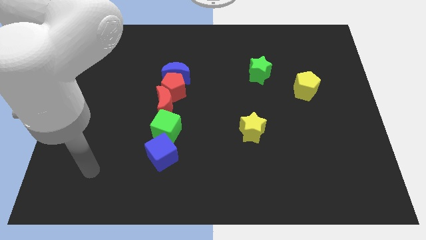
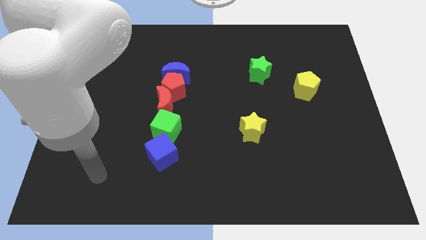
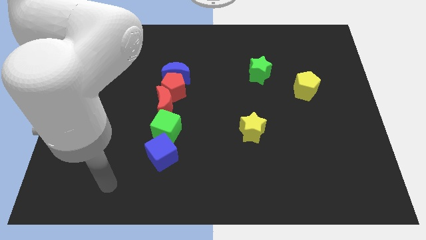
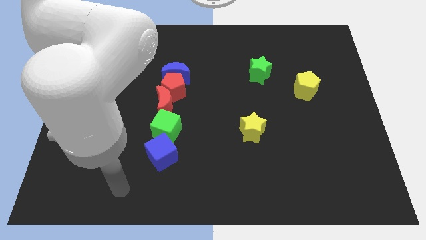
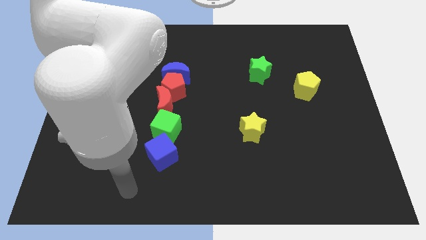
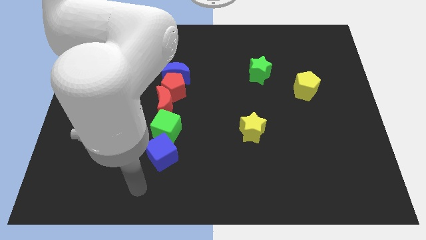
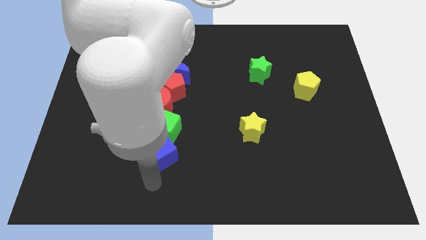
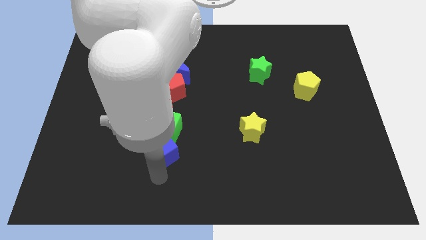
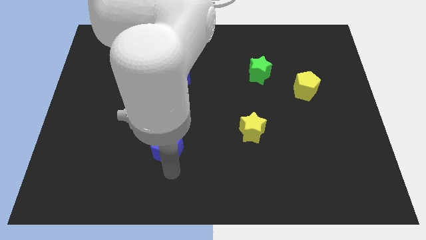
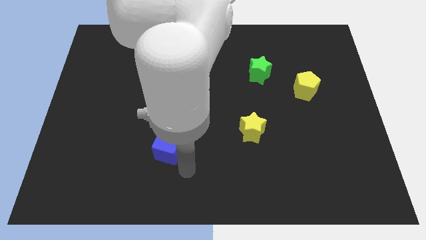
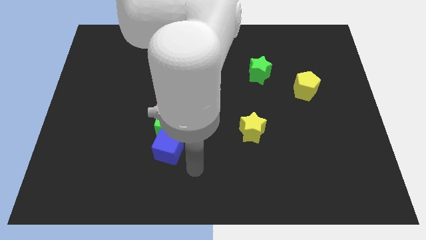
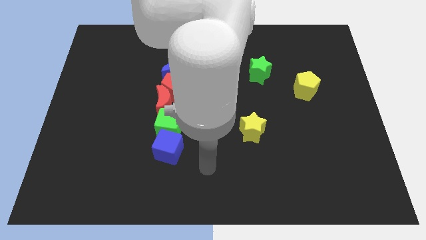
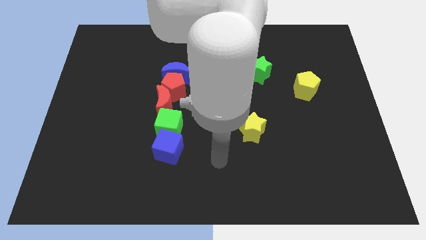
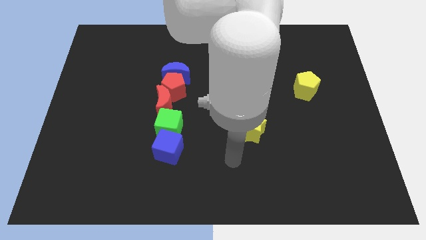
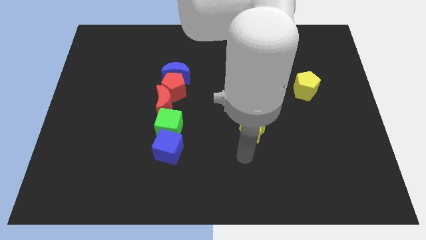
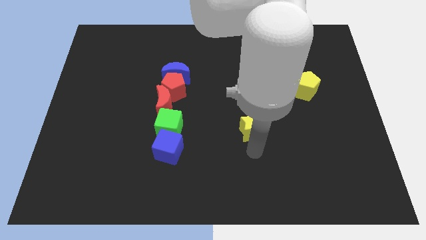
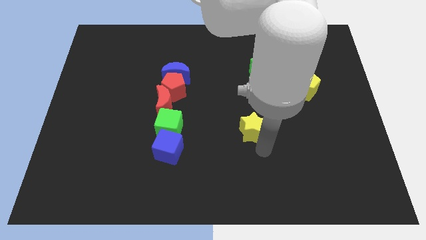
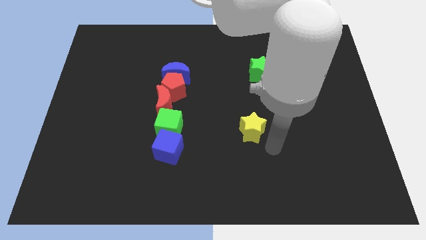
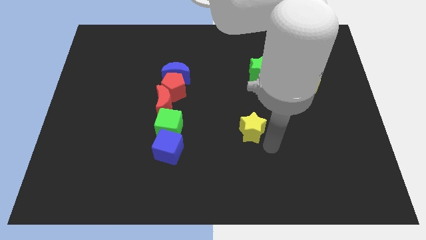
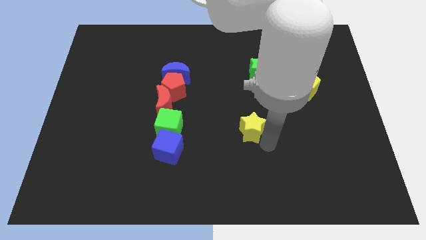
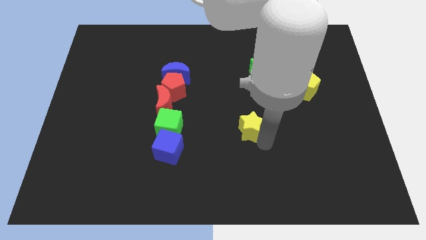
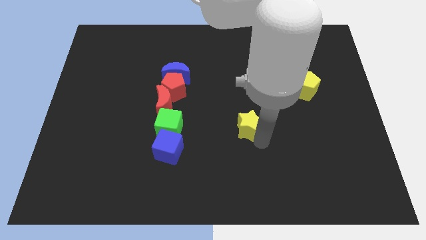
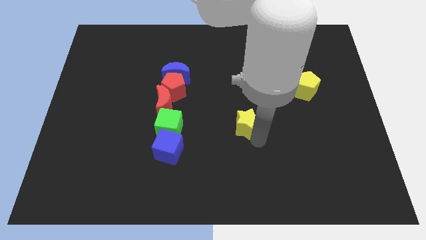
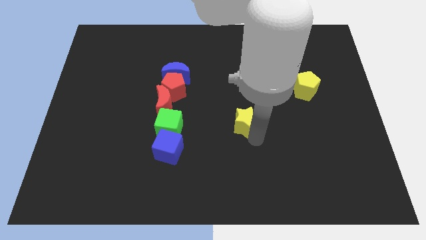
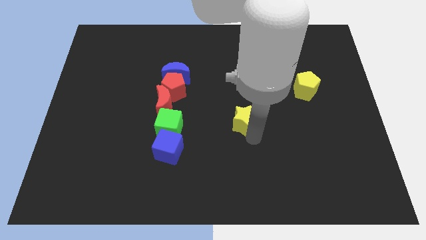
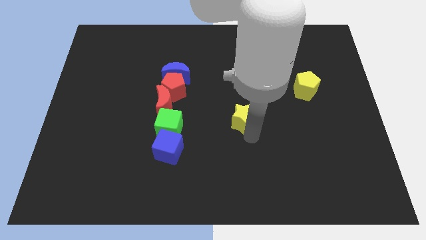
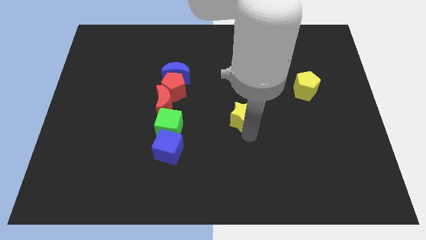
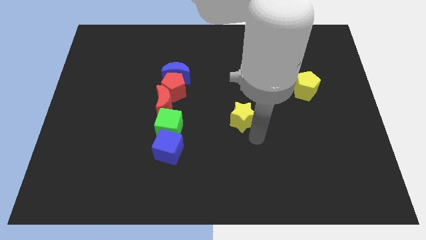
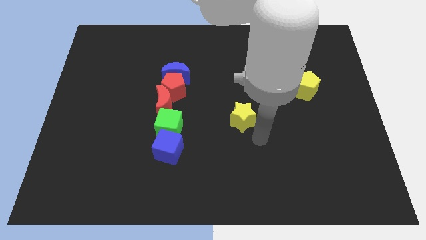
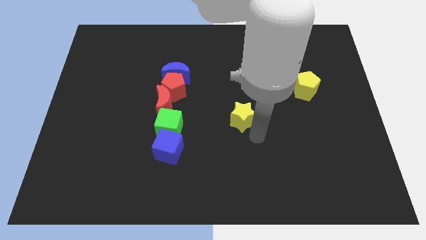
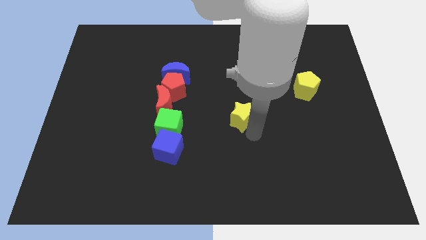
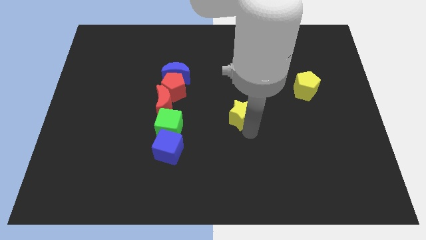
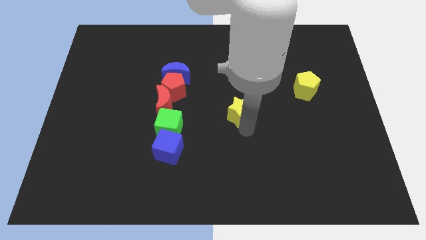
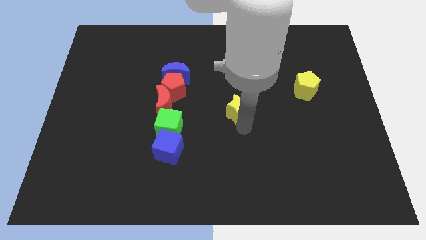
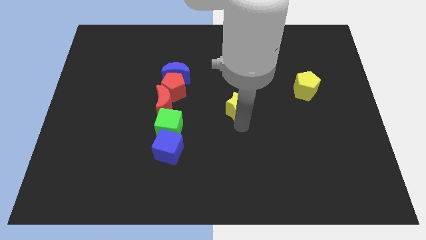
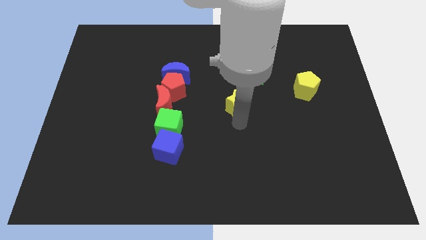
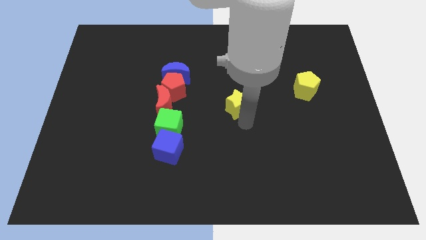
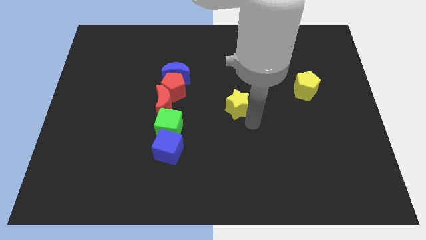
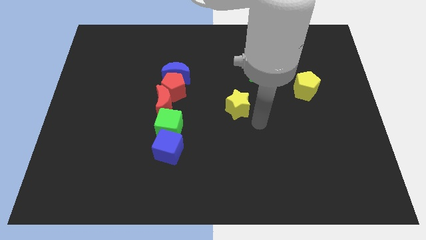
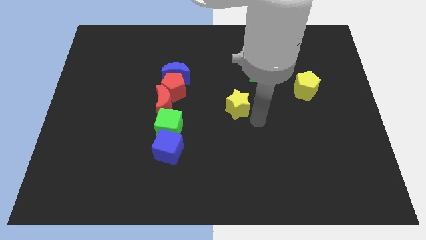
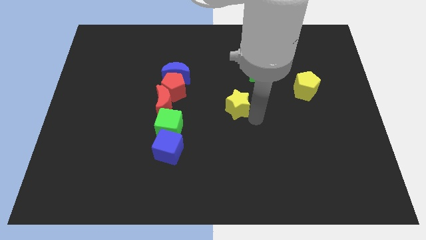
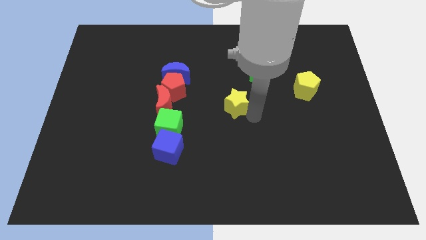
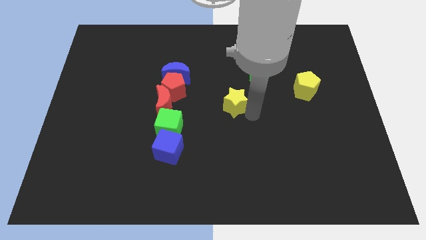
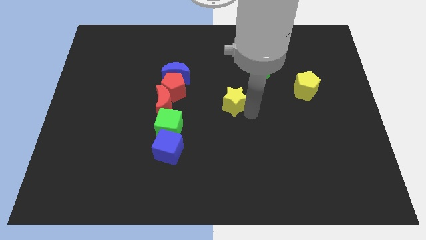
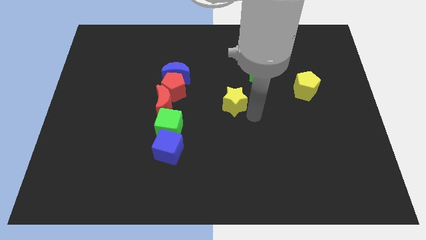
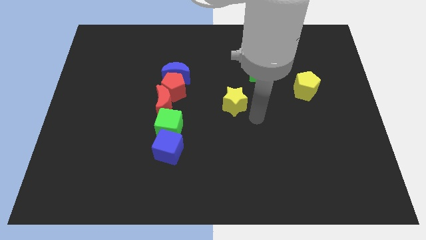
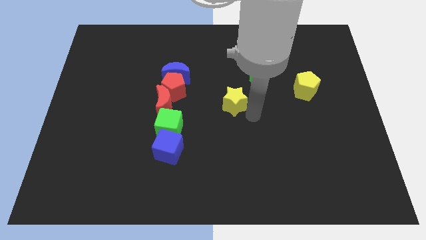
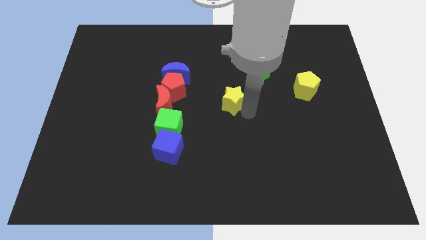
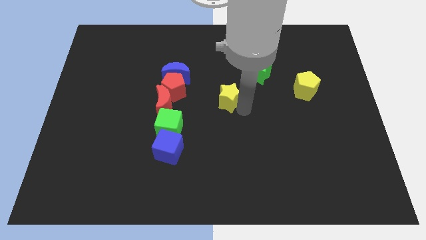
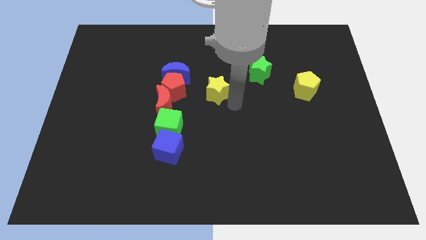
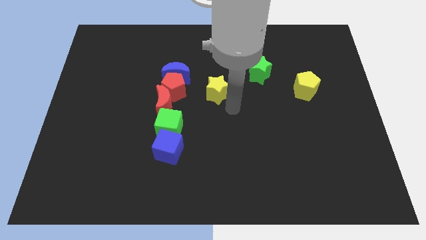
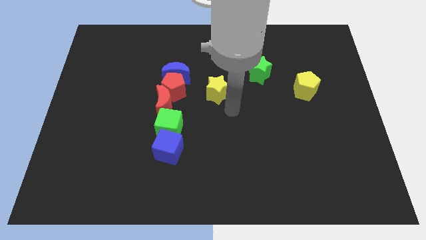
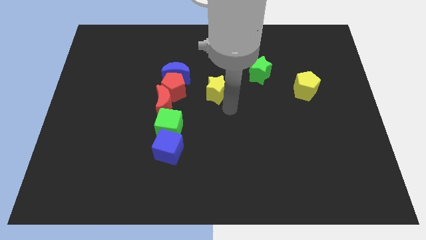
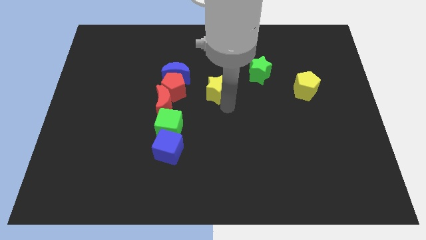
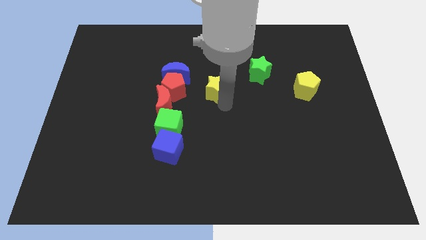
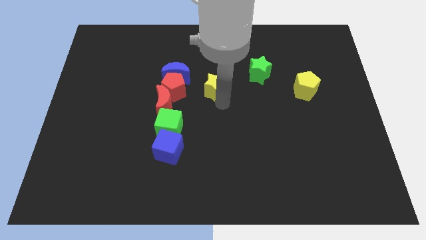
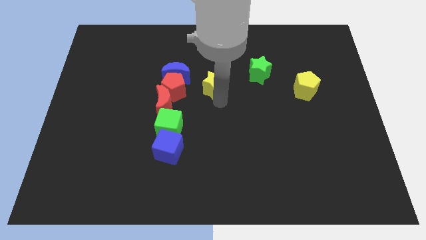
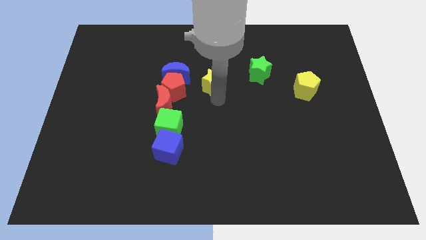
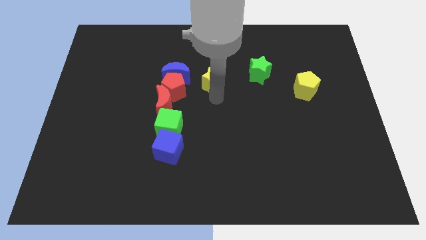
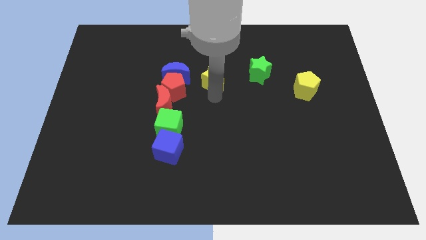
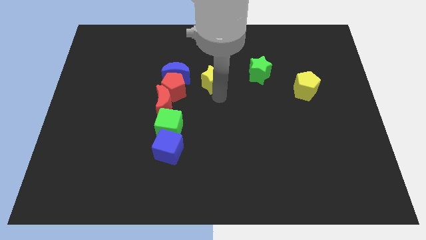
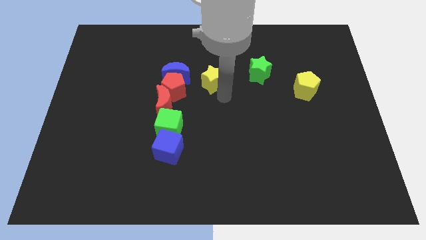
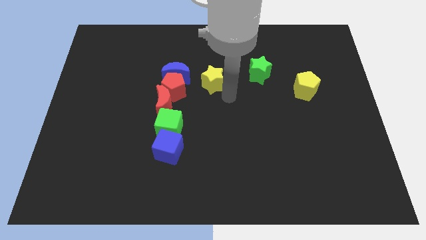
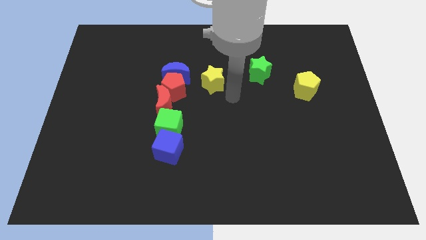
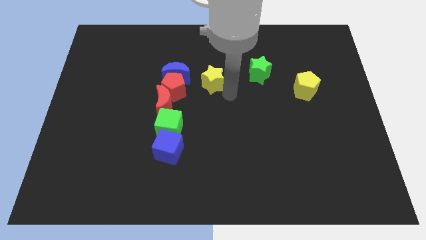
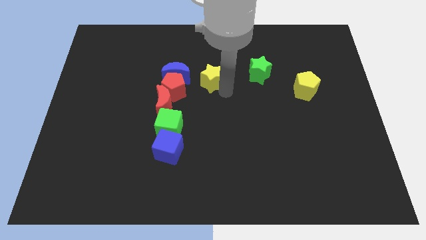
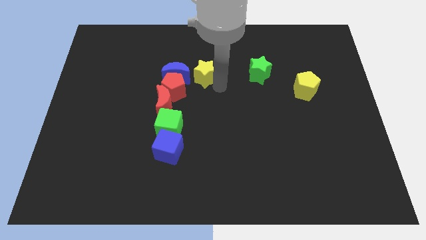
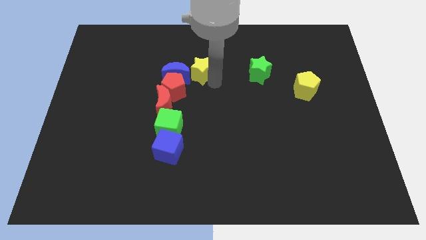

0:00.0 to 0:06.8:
push the yellow star up and then left

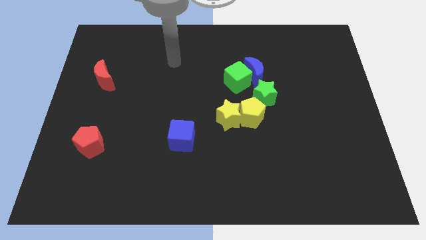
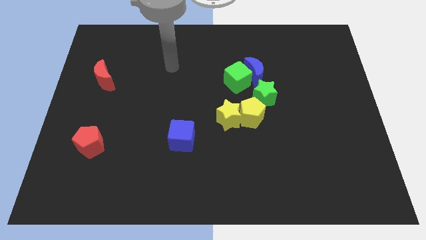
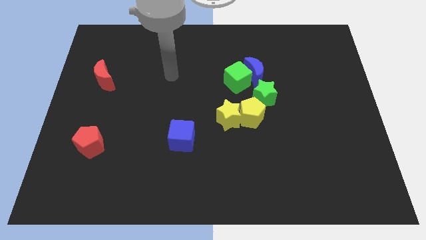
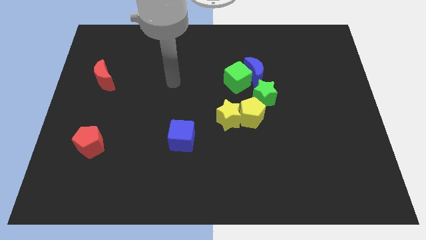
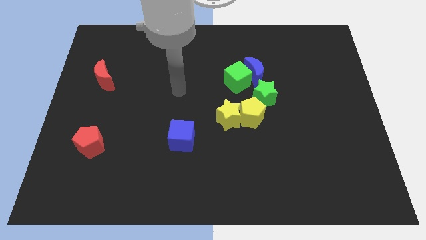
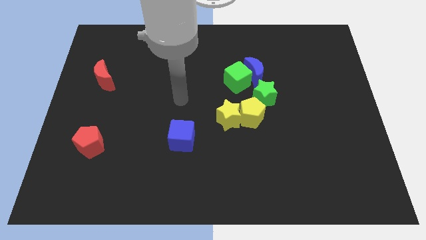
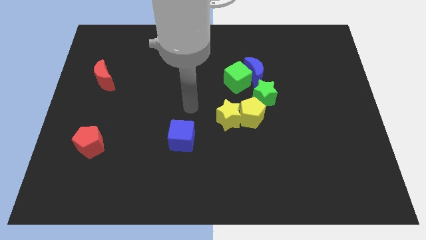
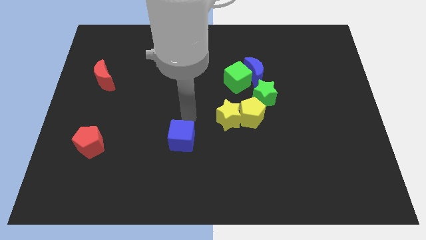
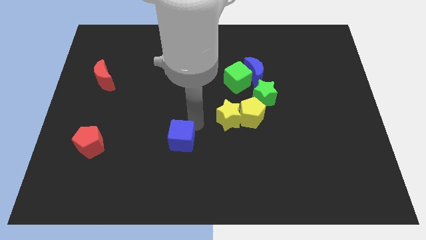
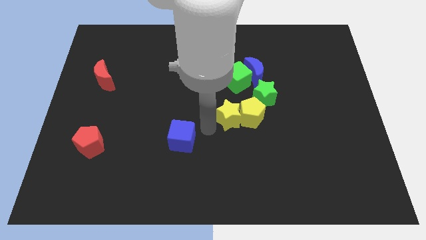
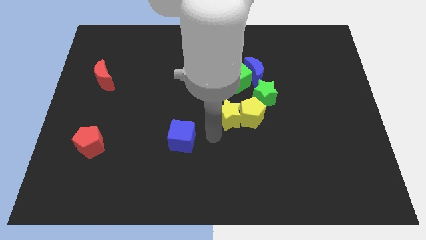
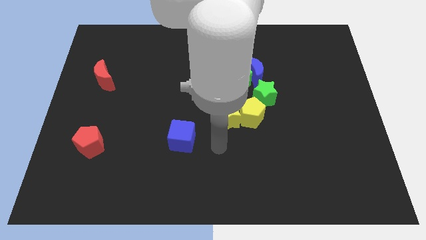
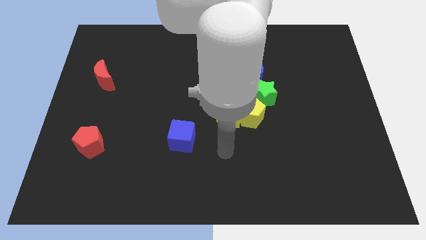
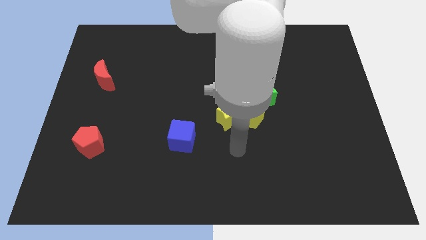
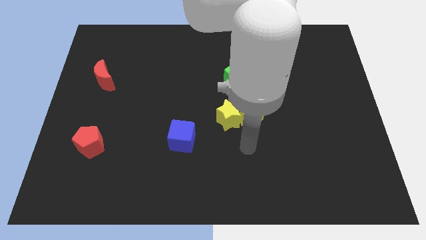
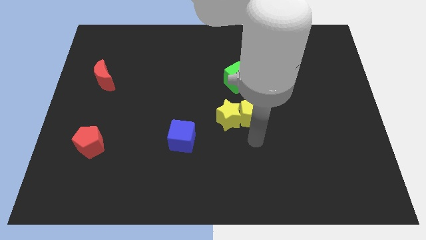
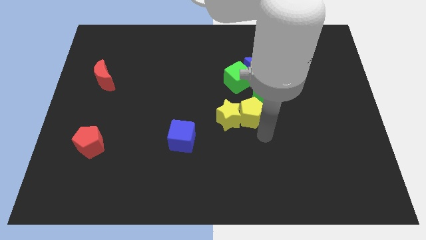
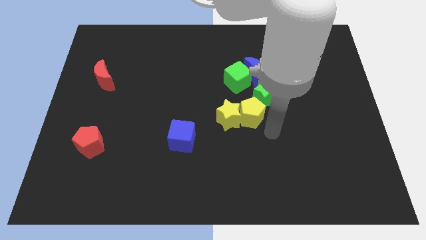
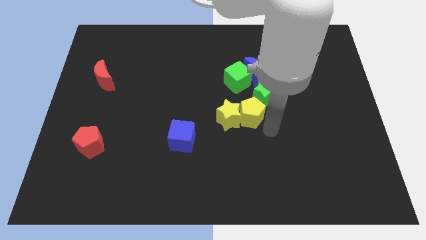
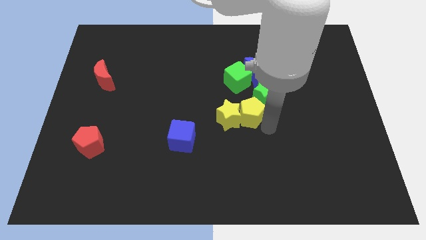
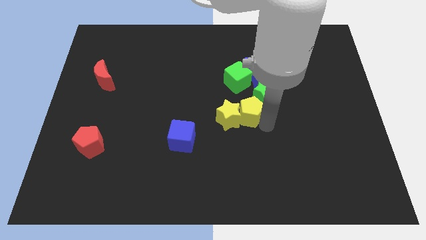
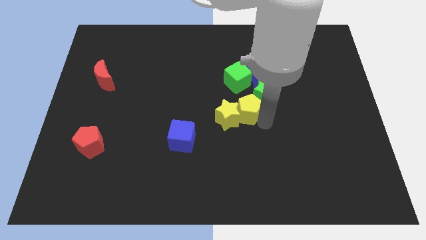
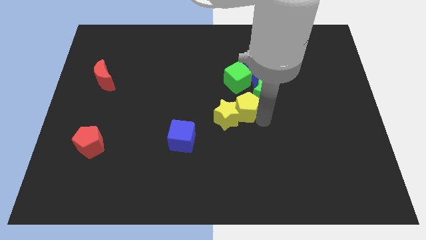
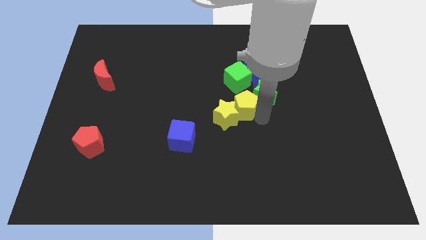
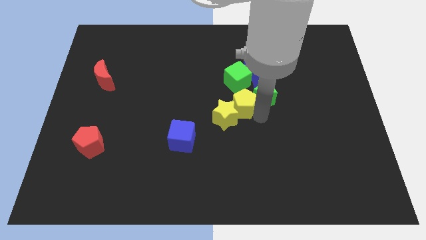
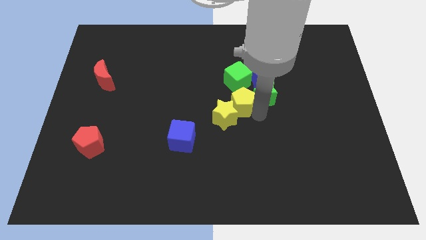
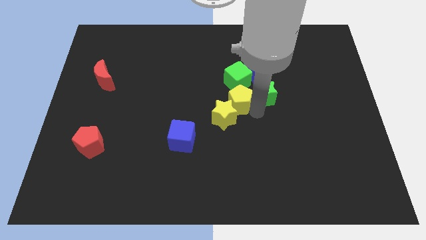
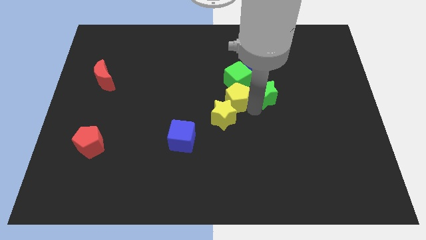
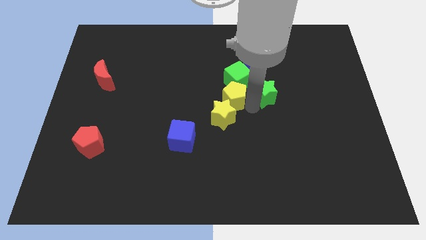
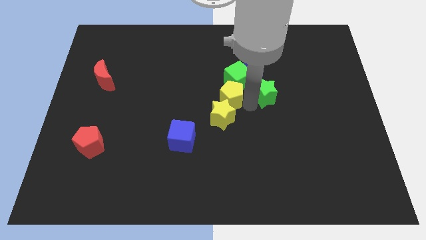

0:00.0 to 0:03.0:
slide the yellow pentagon up and left a little
